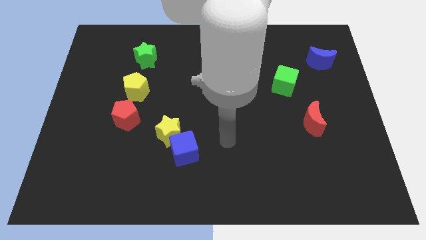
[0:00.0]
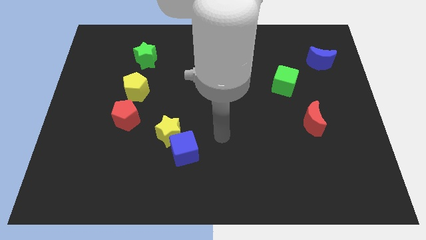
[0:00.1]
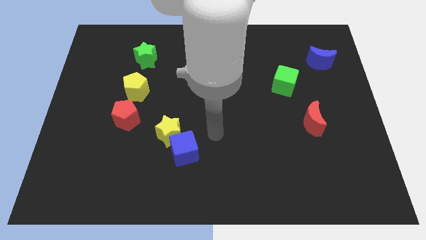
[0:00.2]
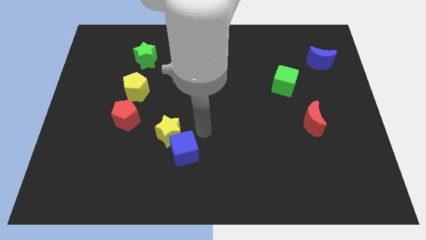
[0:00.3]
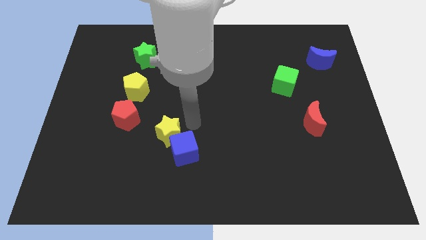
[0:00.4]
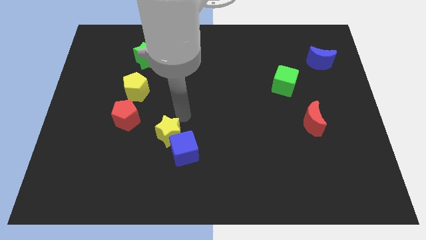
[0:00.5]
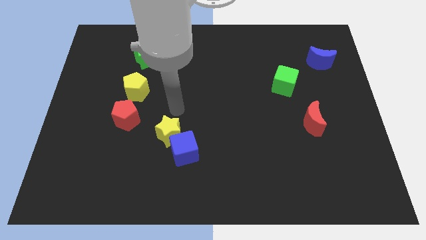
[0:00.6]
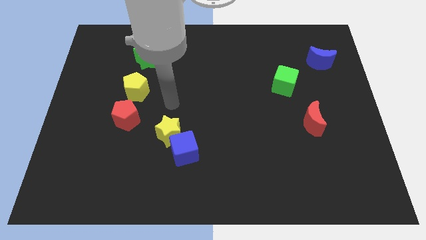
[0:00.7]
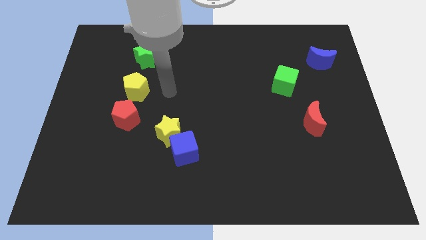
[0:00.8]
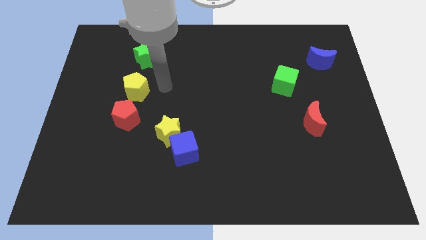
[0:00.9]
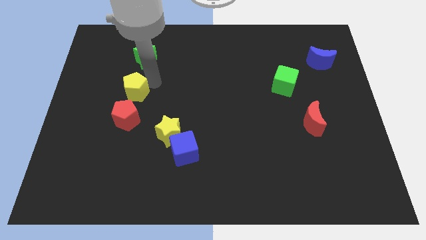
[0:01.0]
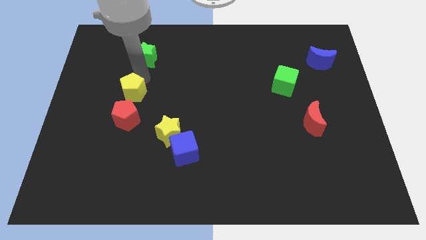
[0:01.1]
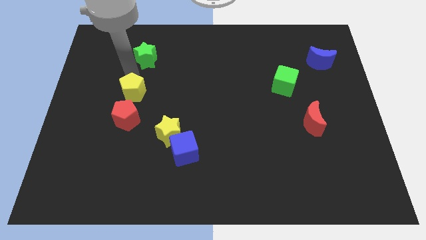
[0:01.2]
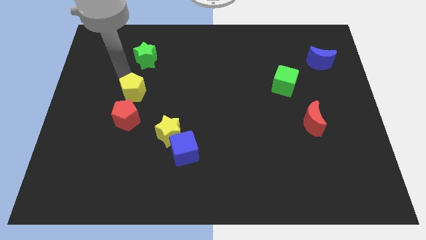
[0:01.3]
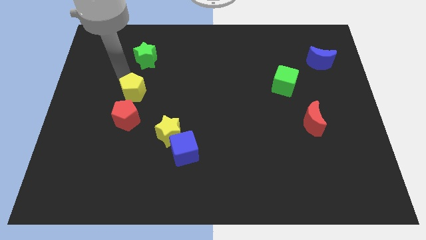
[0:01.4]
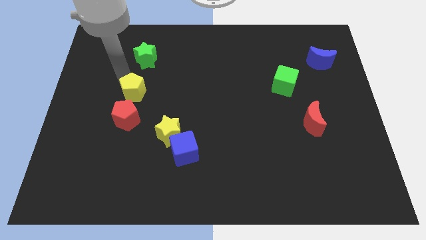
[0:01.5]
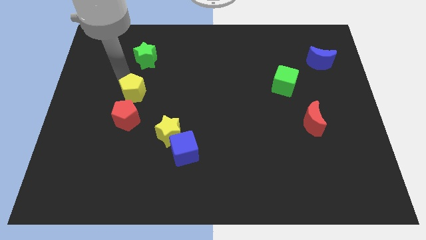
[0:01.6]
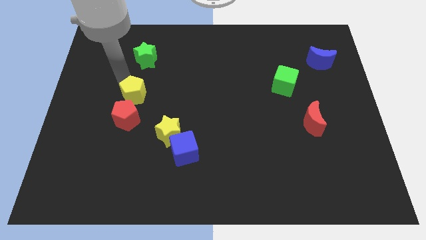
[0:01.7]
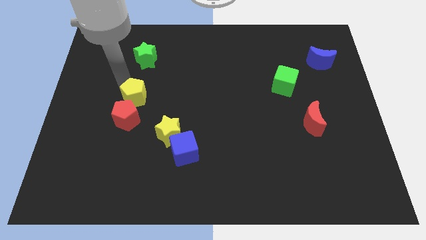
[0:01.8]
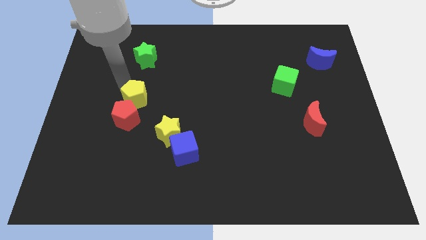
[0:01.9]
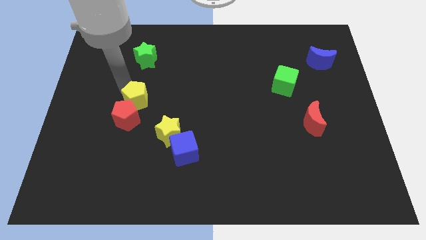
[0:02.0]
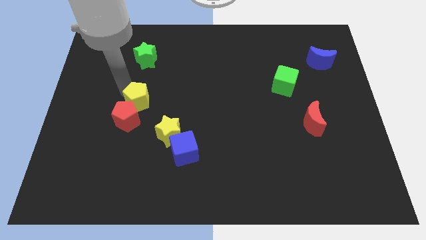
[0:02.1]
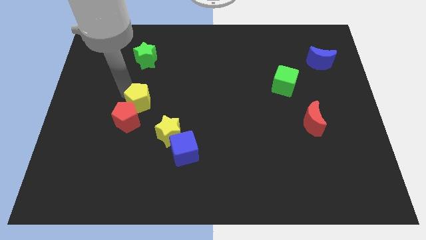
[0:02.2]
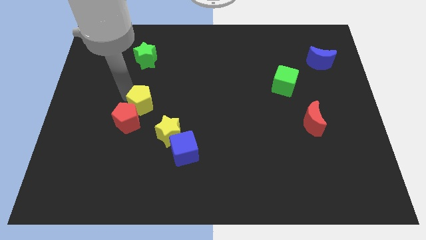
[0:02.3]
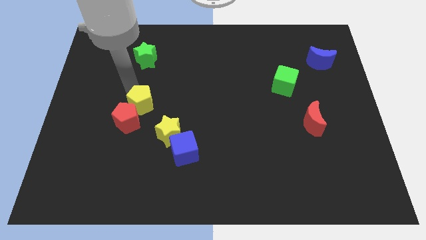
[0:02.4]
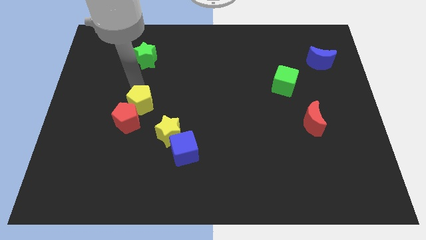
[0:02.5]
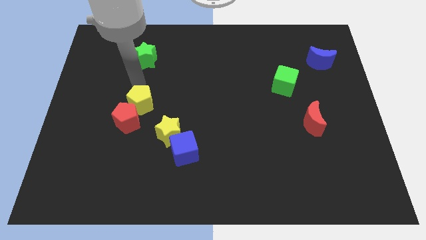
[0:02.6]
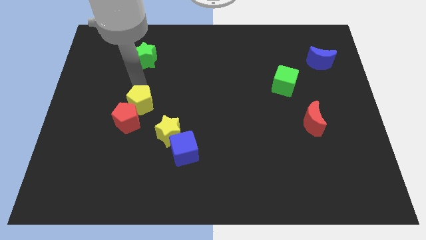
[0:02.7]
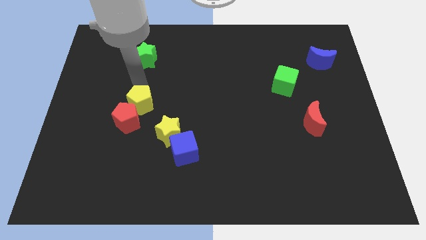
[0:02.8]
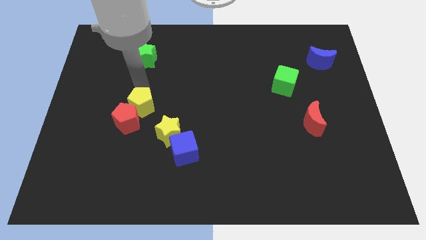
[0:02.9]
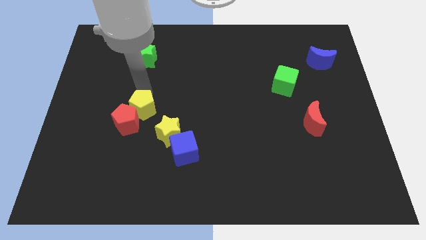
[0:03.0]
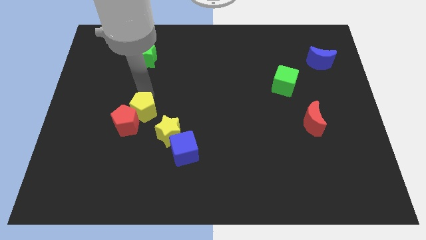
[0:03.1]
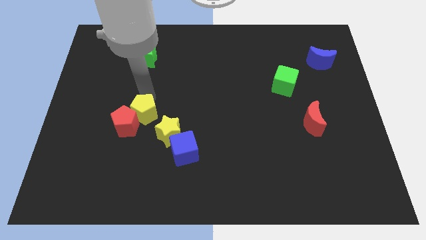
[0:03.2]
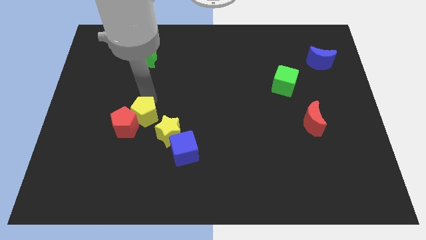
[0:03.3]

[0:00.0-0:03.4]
move the yellow pentagon somewhat down

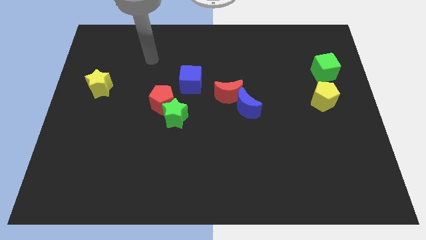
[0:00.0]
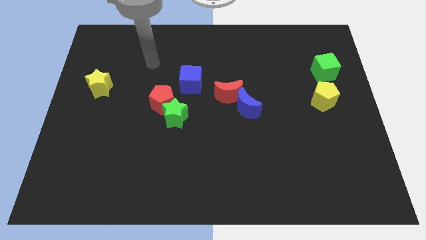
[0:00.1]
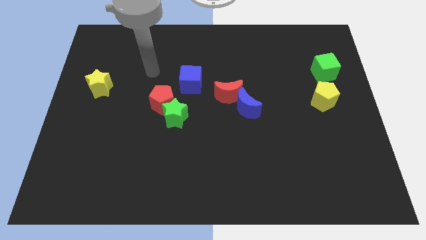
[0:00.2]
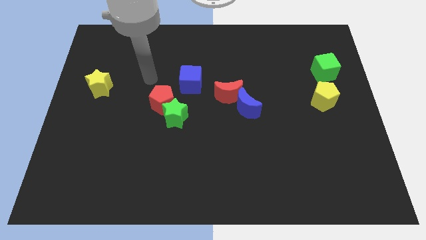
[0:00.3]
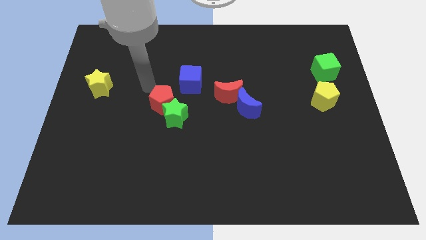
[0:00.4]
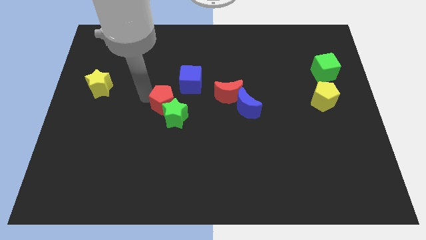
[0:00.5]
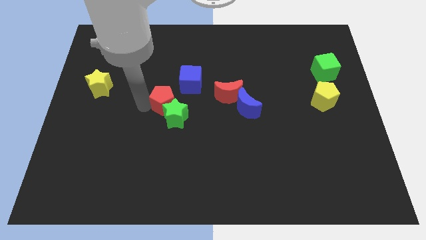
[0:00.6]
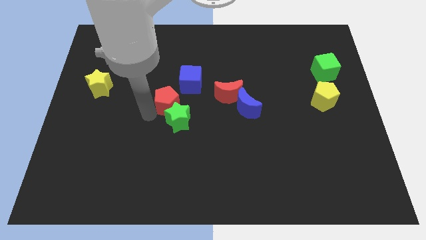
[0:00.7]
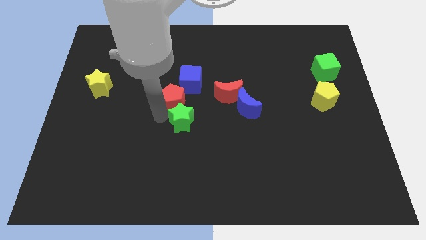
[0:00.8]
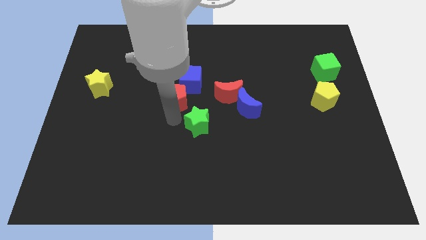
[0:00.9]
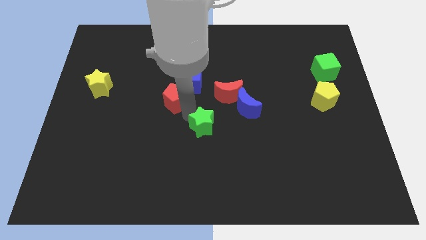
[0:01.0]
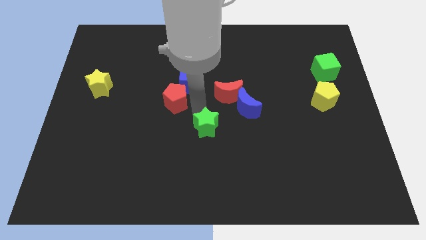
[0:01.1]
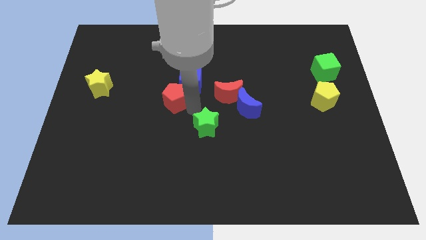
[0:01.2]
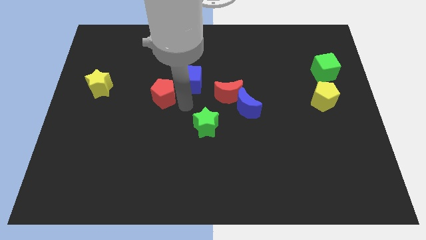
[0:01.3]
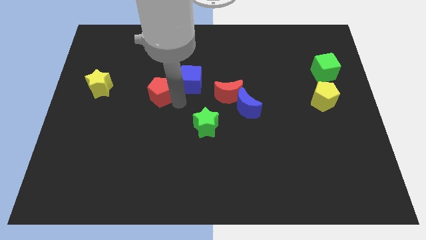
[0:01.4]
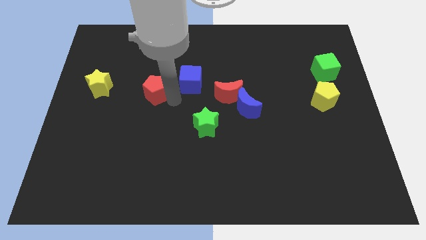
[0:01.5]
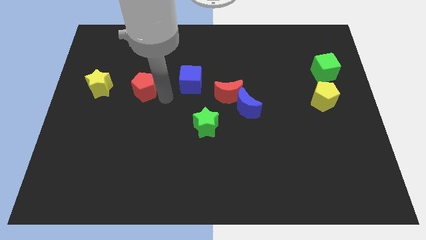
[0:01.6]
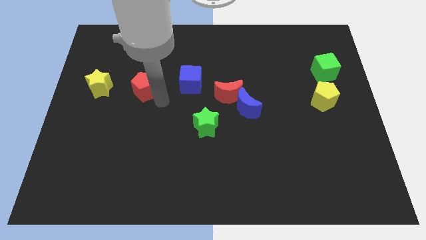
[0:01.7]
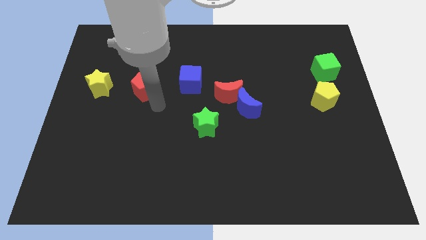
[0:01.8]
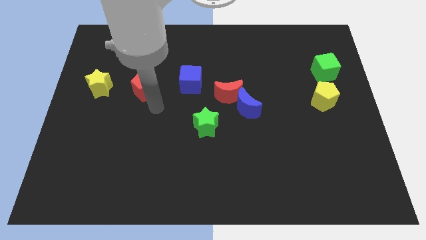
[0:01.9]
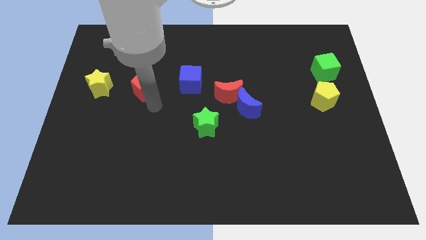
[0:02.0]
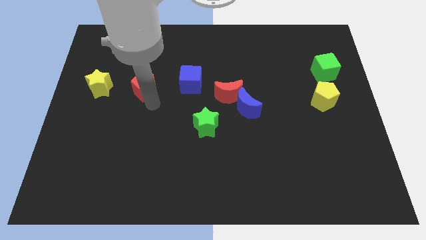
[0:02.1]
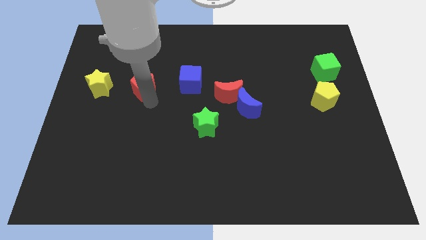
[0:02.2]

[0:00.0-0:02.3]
slightly slide the red pentagon diagonally upwards and to the left

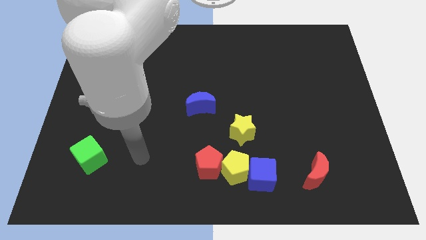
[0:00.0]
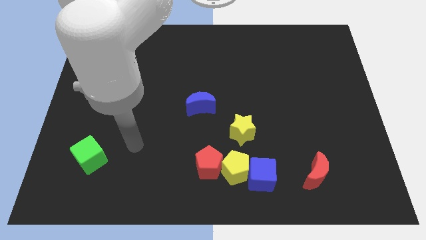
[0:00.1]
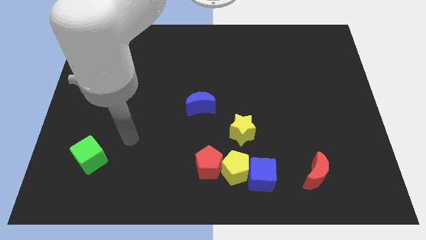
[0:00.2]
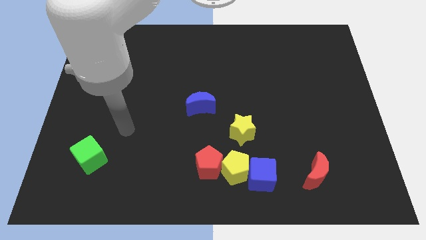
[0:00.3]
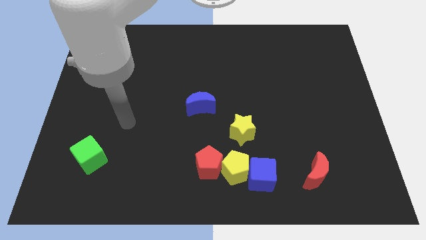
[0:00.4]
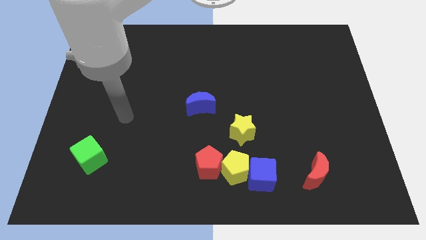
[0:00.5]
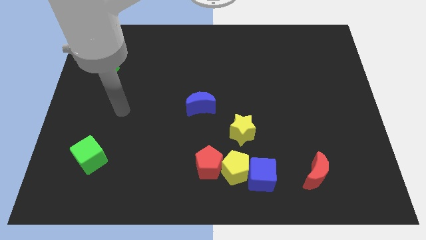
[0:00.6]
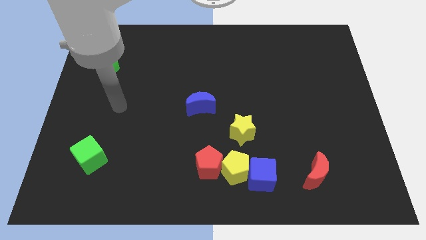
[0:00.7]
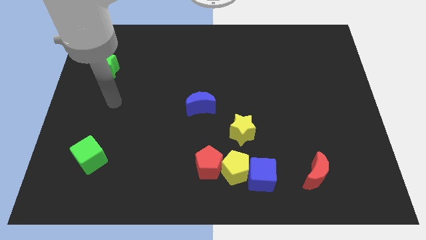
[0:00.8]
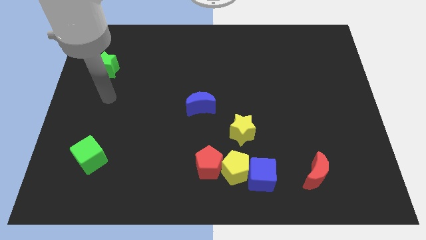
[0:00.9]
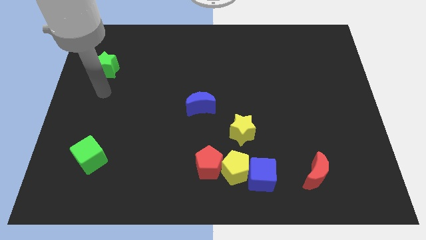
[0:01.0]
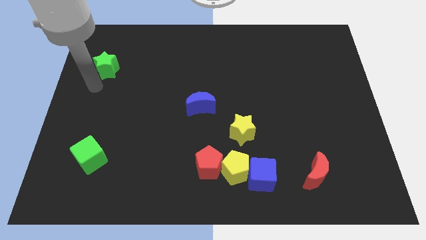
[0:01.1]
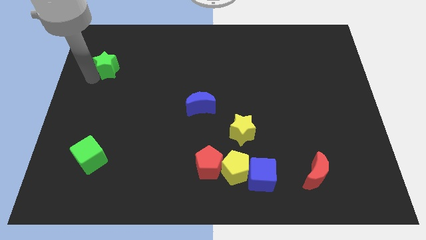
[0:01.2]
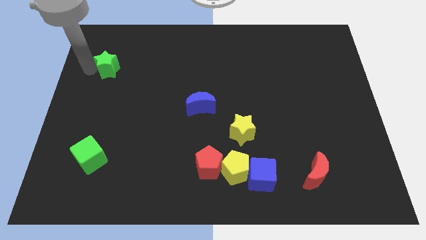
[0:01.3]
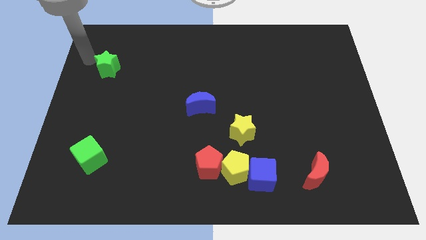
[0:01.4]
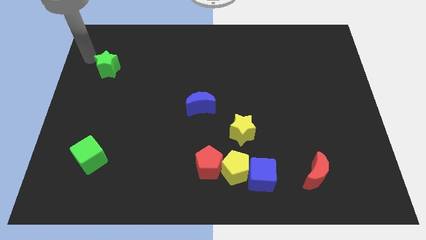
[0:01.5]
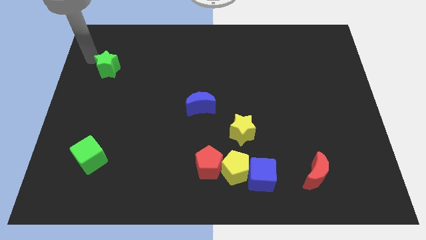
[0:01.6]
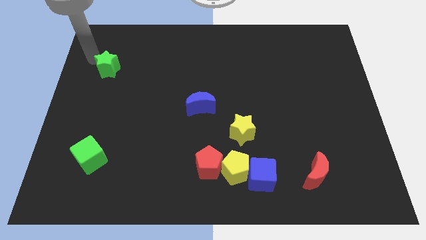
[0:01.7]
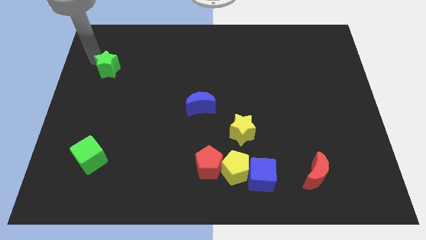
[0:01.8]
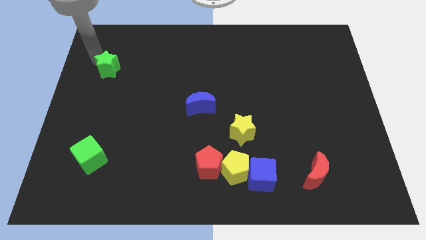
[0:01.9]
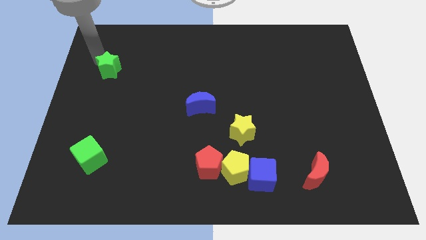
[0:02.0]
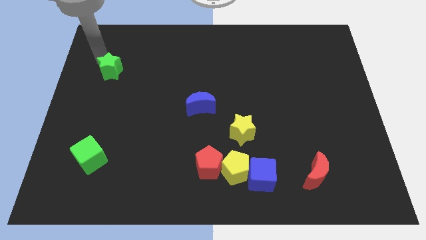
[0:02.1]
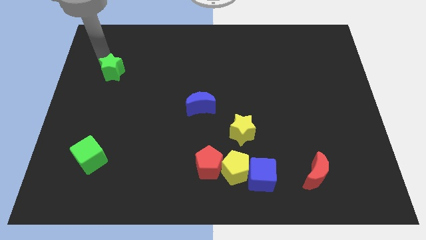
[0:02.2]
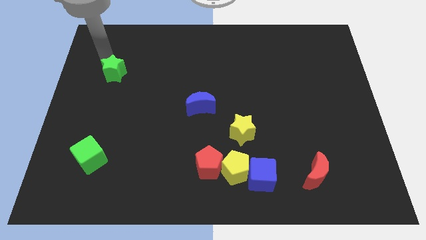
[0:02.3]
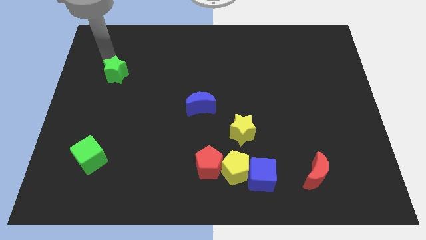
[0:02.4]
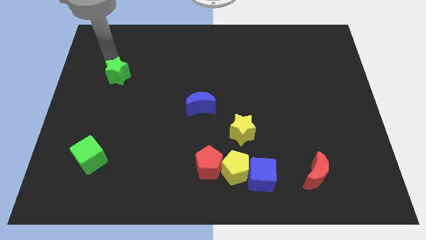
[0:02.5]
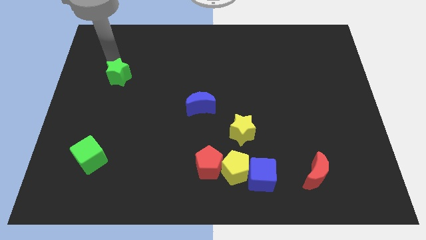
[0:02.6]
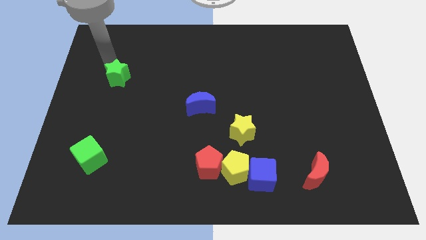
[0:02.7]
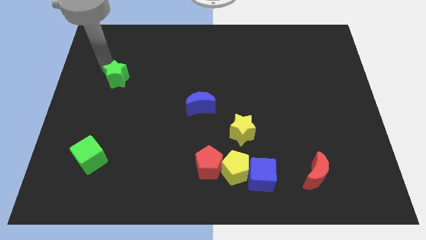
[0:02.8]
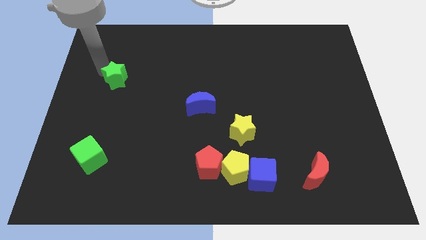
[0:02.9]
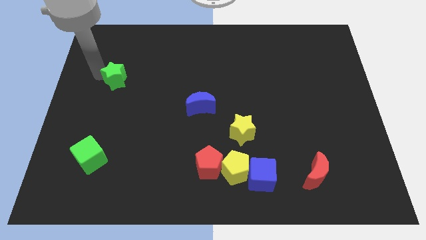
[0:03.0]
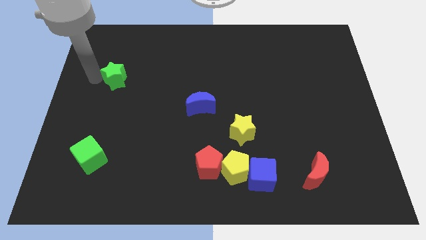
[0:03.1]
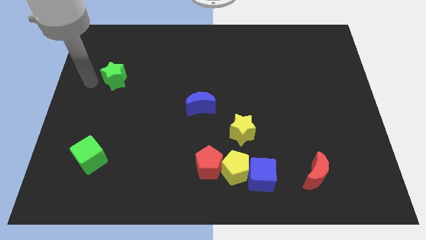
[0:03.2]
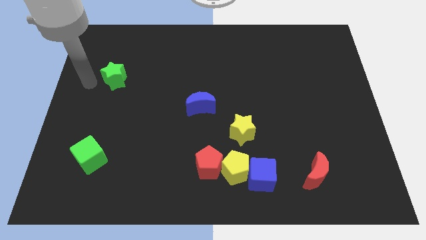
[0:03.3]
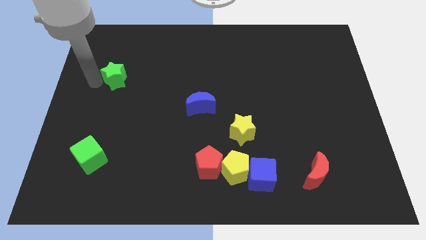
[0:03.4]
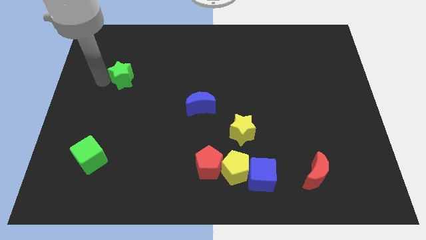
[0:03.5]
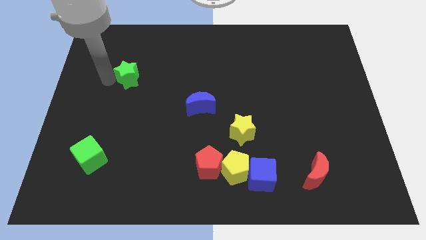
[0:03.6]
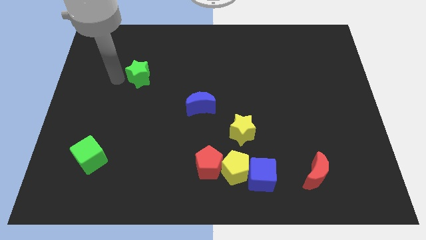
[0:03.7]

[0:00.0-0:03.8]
move the green star to the right a little bit
